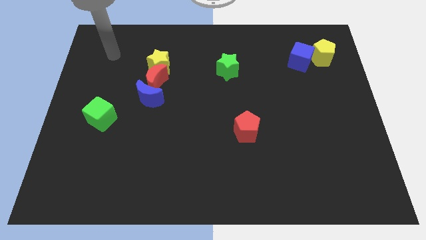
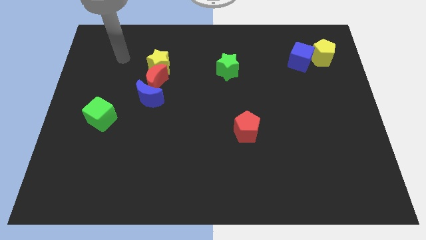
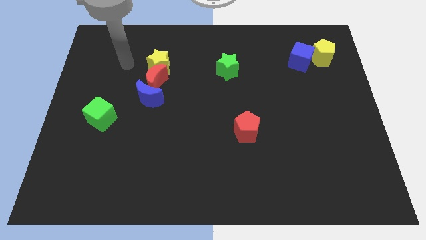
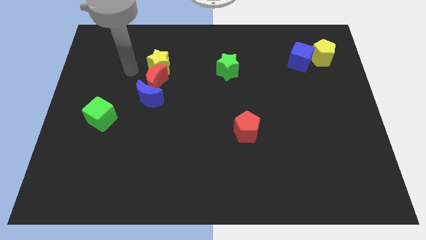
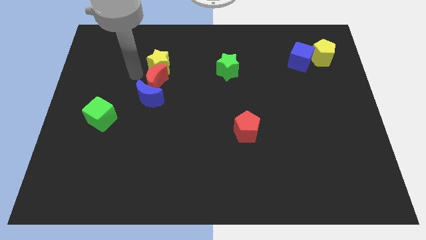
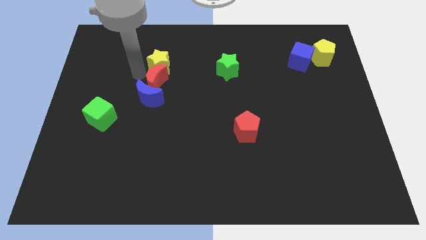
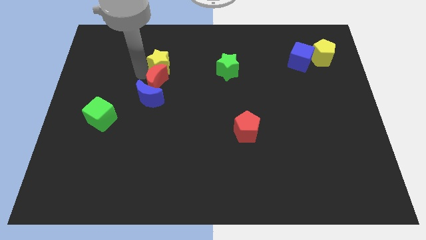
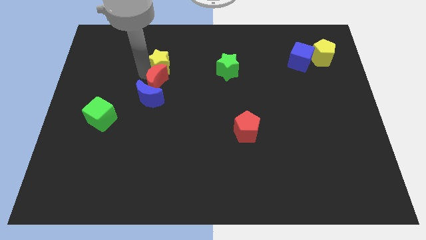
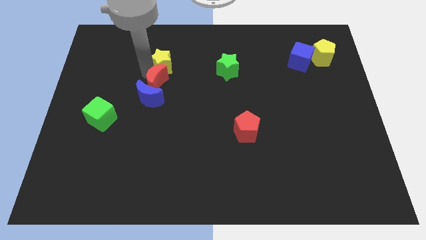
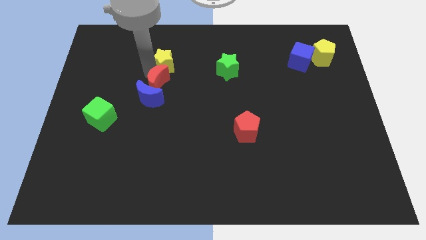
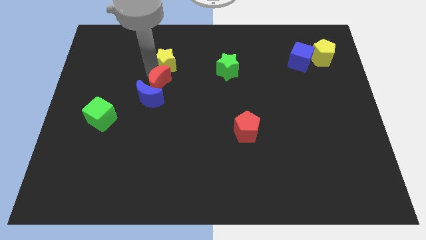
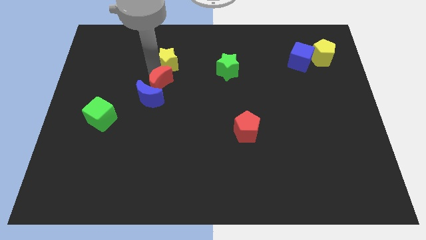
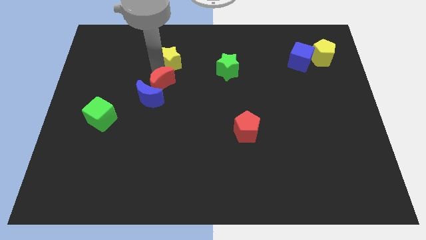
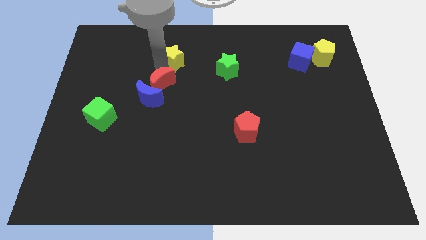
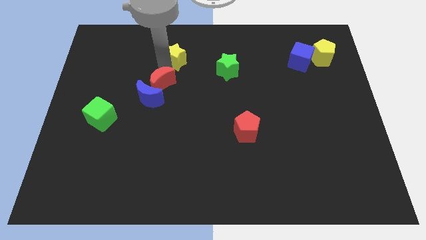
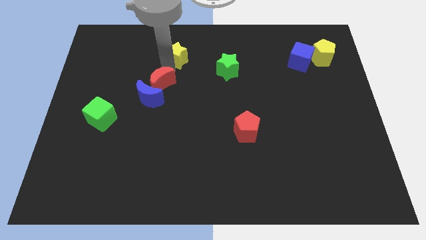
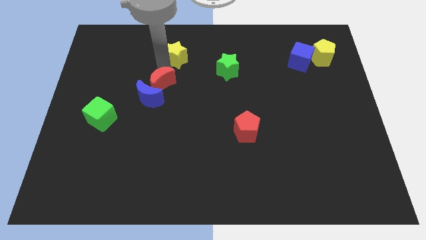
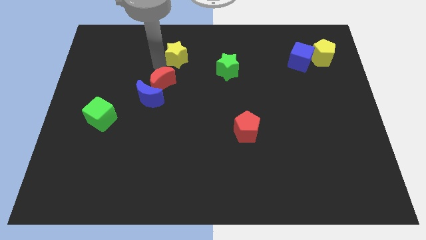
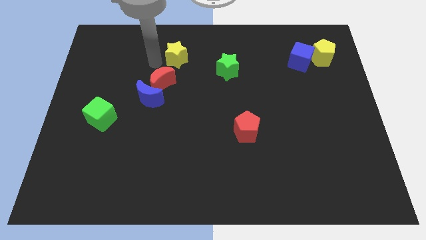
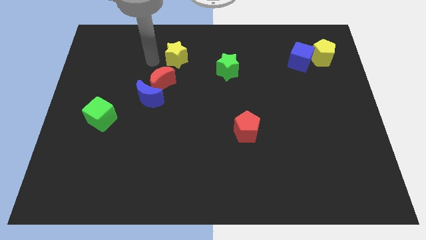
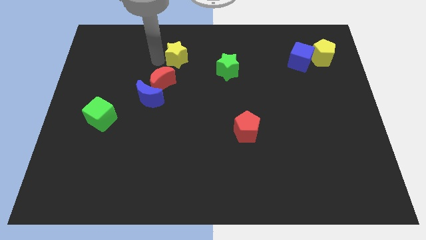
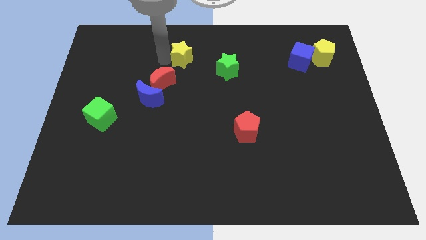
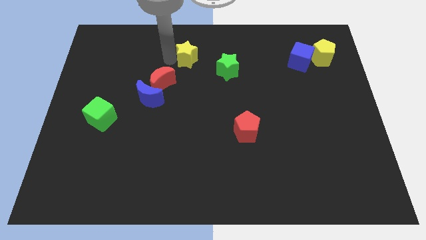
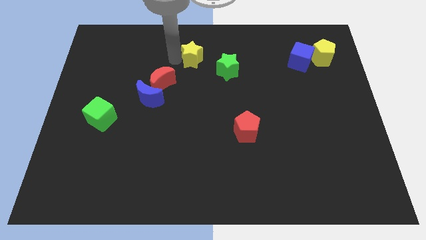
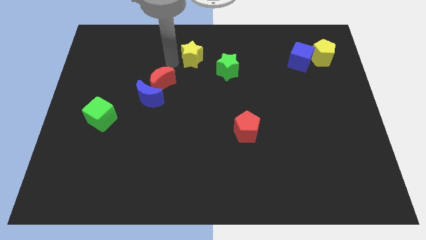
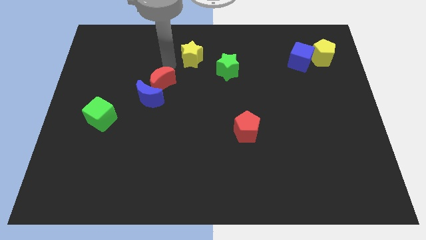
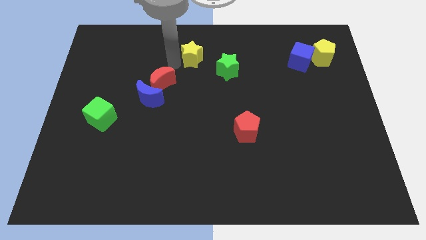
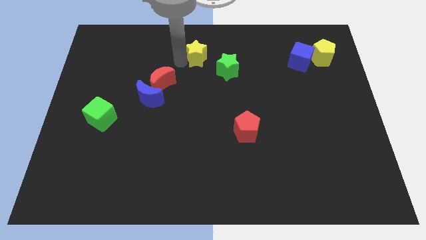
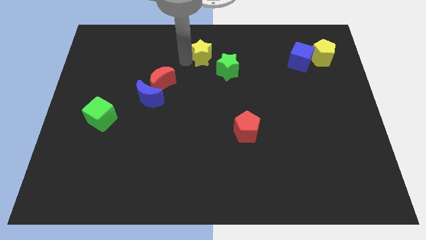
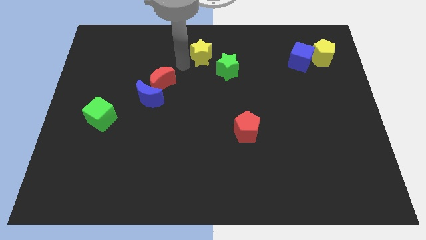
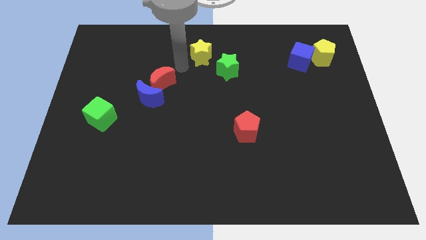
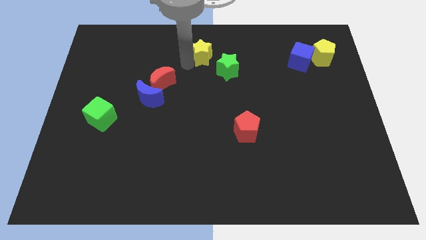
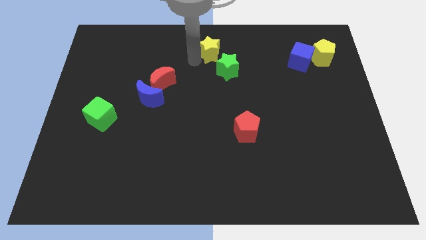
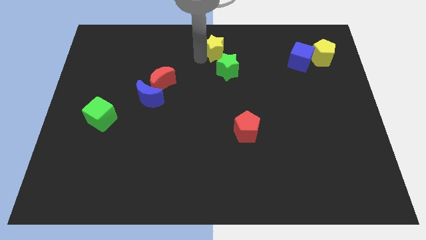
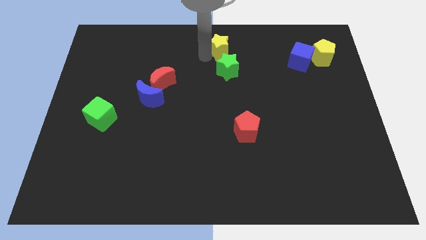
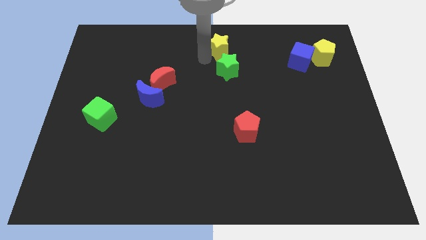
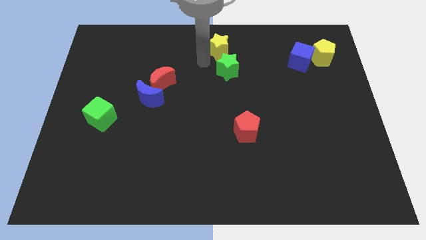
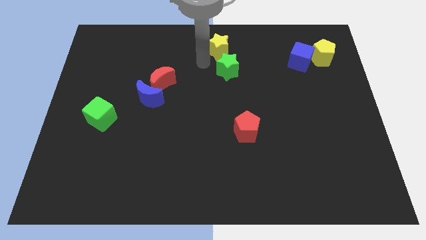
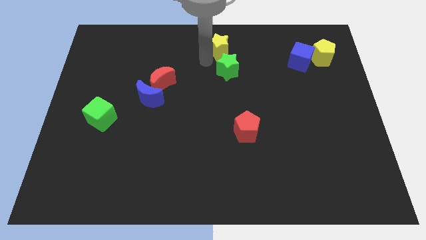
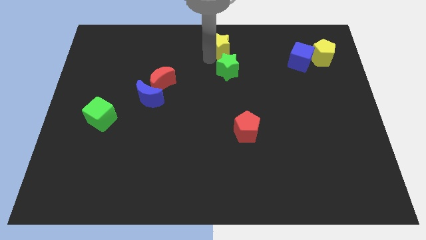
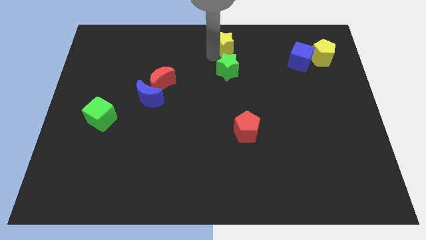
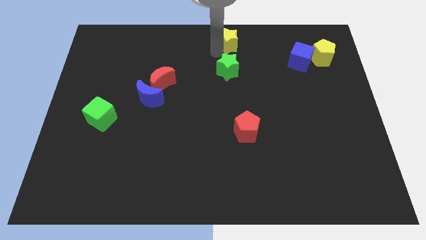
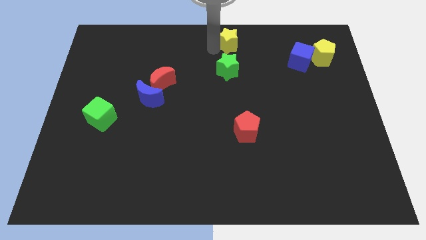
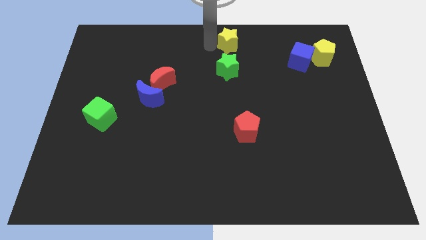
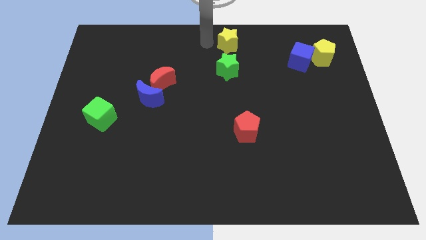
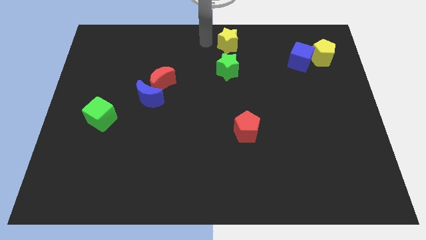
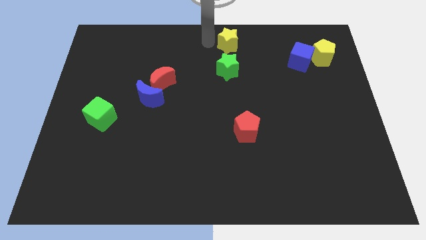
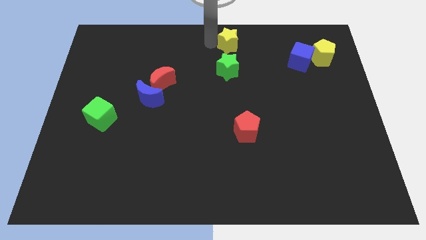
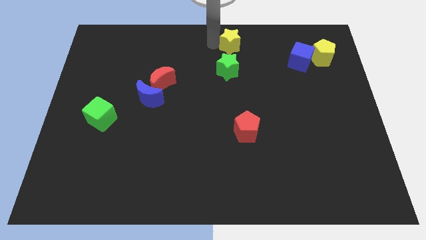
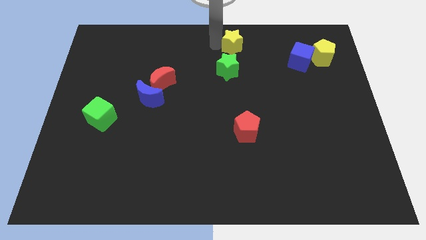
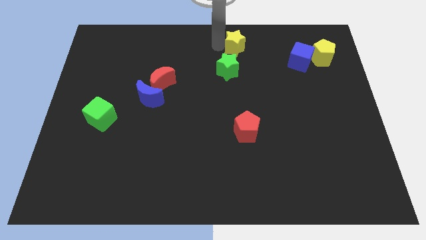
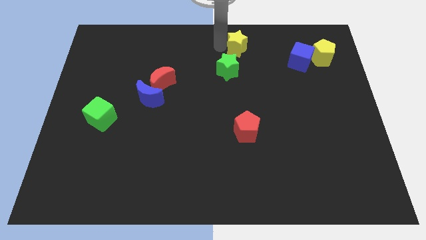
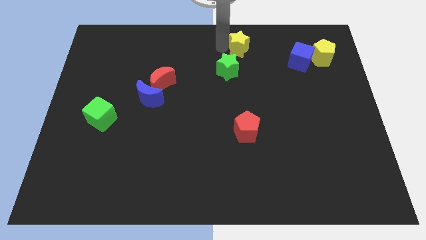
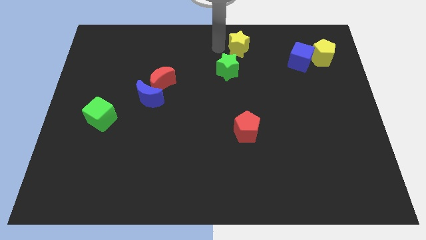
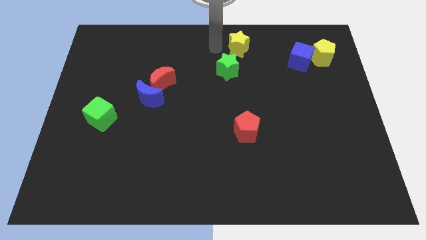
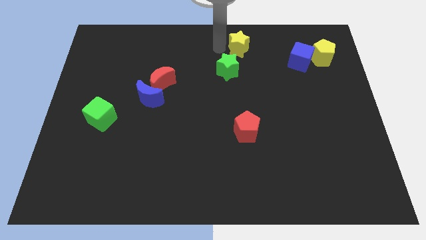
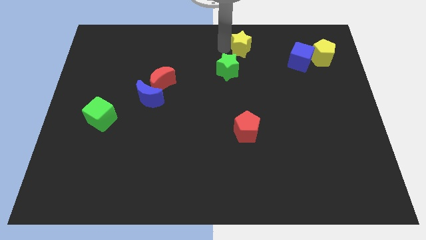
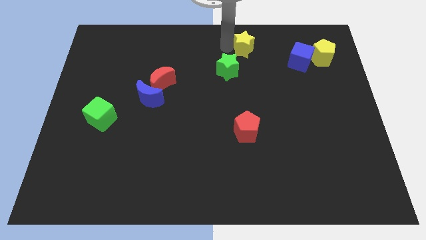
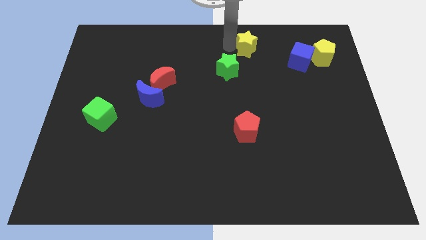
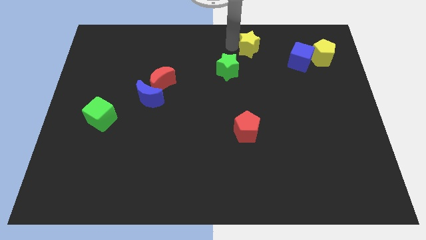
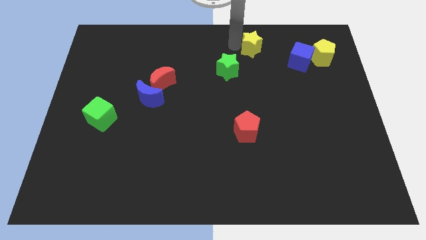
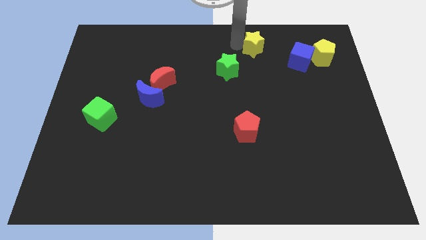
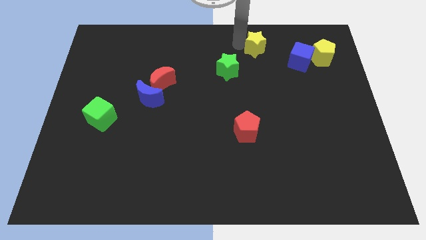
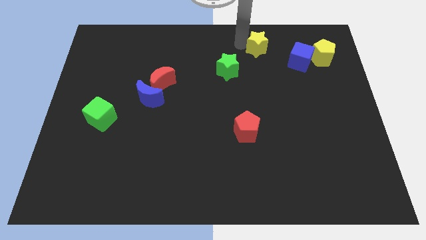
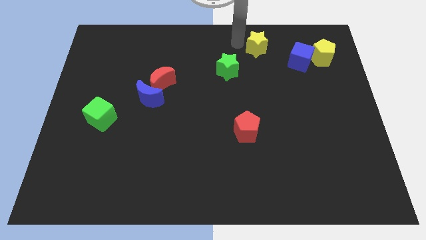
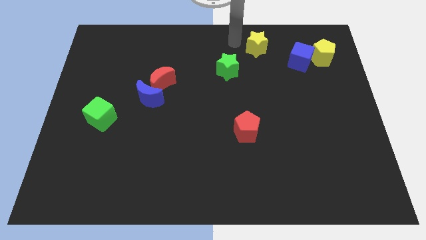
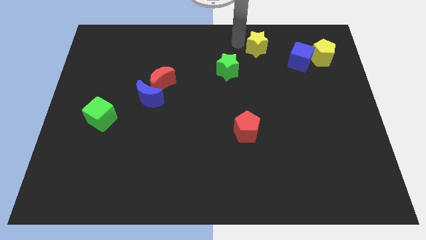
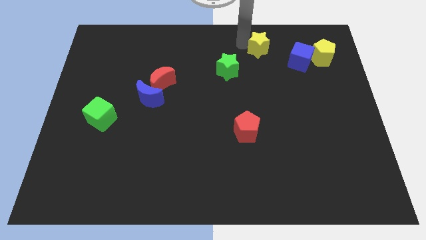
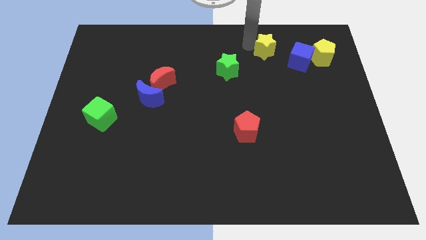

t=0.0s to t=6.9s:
move the yellow star to the left of the yellow pentagon
